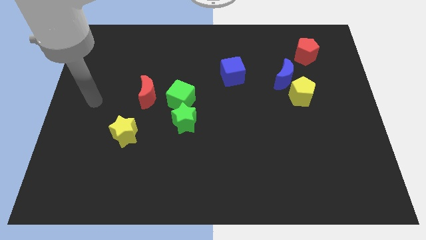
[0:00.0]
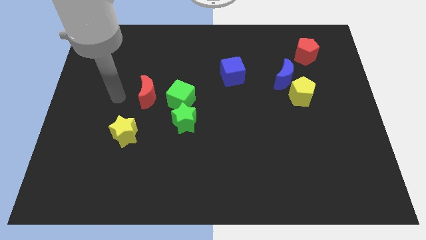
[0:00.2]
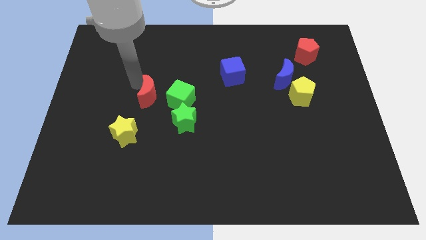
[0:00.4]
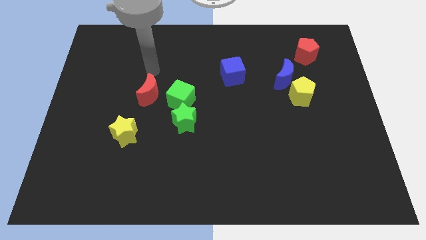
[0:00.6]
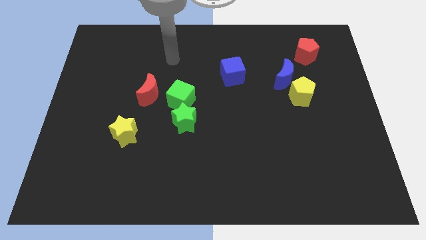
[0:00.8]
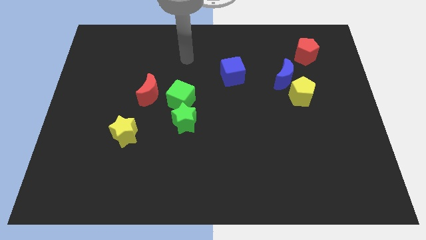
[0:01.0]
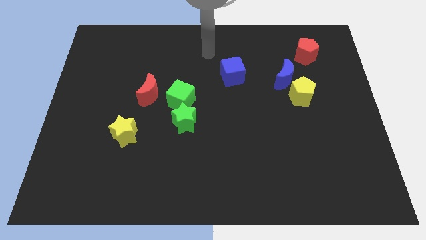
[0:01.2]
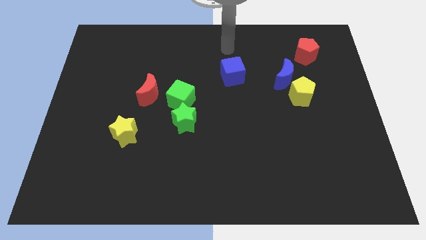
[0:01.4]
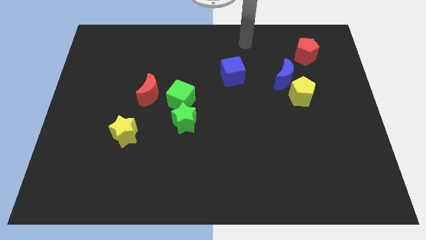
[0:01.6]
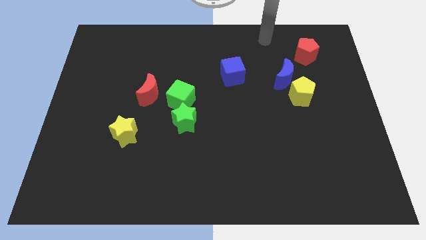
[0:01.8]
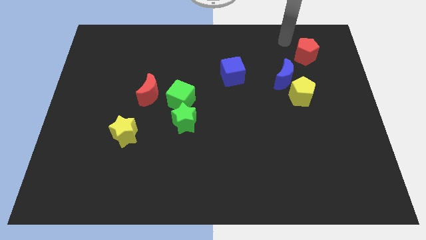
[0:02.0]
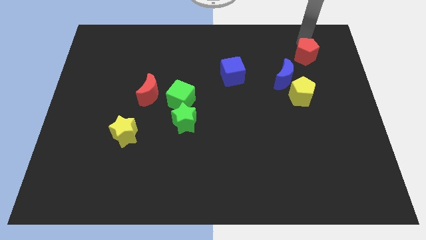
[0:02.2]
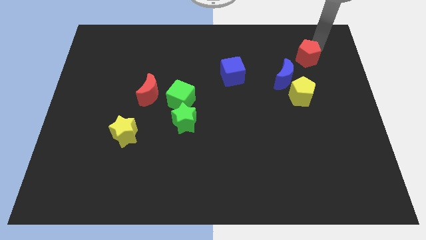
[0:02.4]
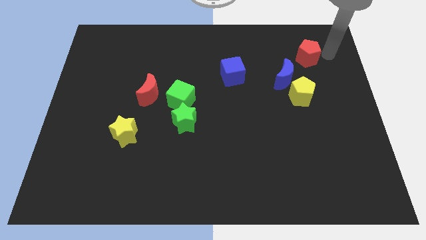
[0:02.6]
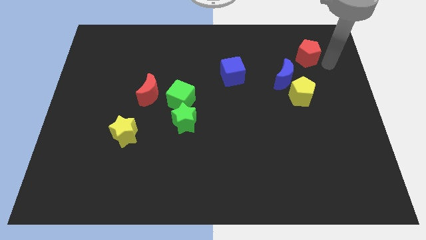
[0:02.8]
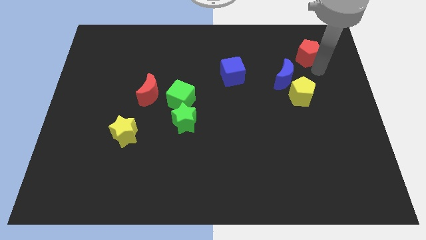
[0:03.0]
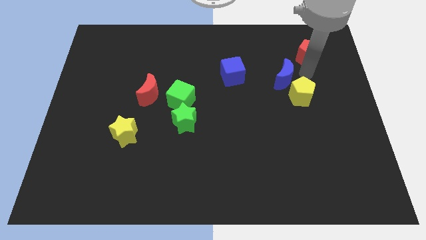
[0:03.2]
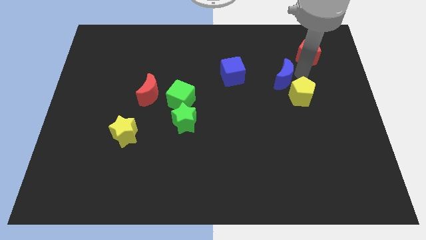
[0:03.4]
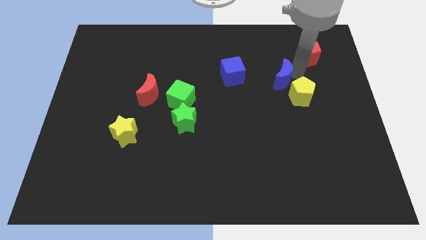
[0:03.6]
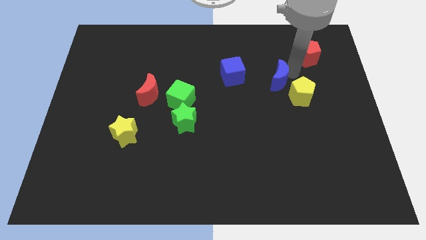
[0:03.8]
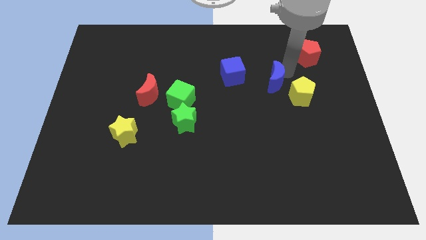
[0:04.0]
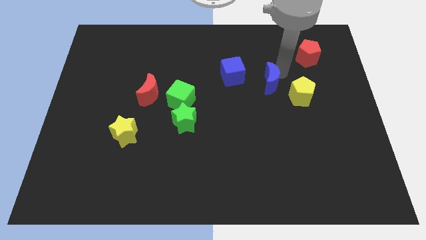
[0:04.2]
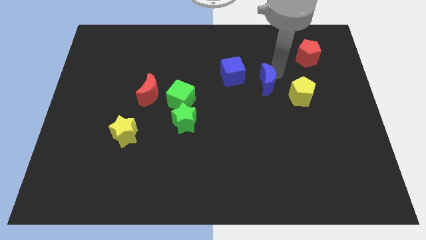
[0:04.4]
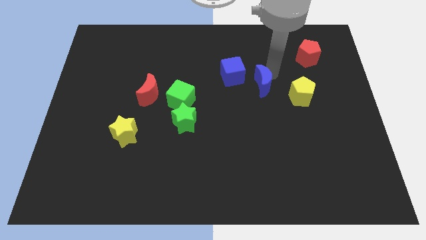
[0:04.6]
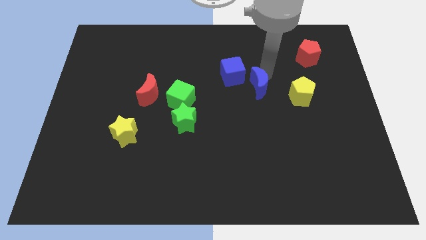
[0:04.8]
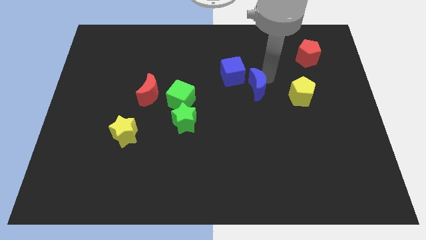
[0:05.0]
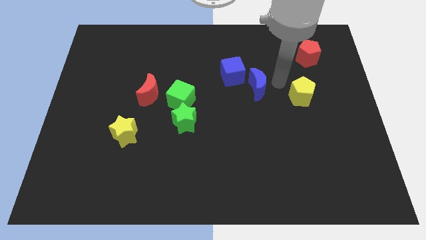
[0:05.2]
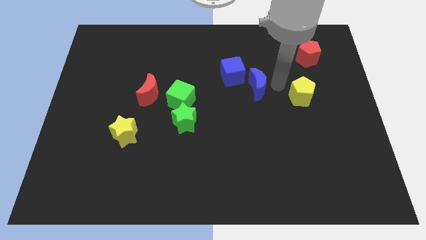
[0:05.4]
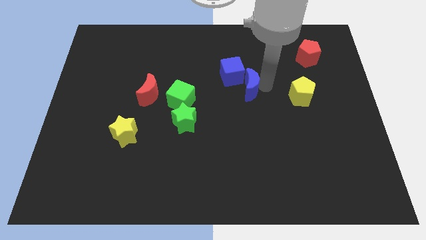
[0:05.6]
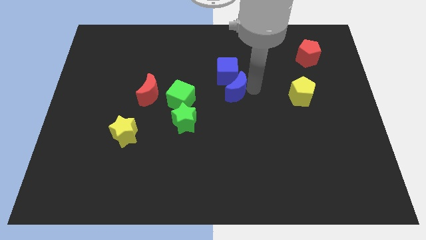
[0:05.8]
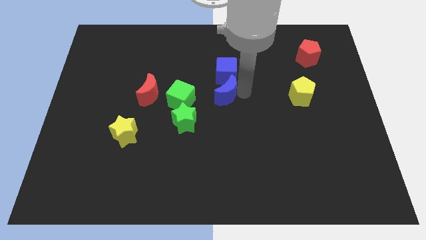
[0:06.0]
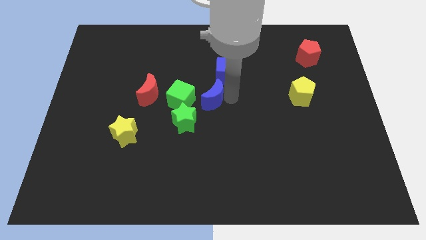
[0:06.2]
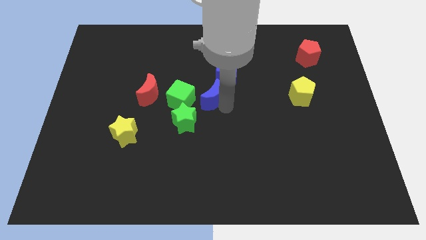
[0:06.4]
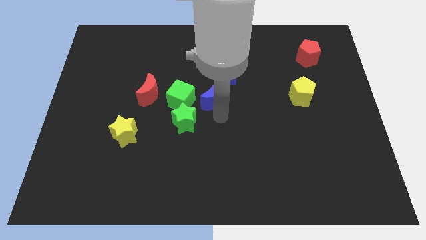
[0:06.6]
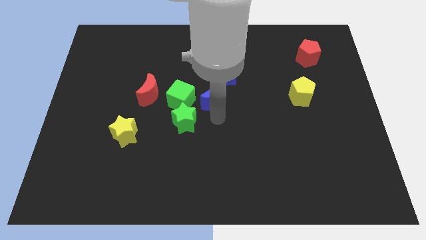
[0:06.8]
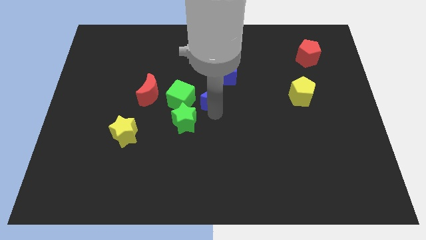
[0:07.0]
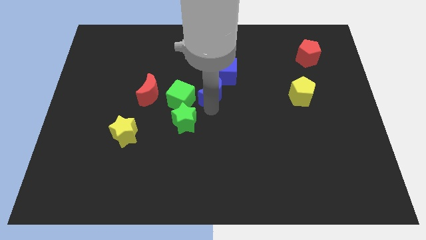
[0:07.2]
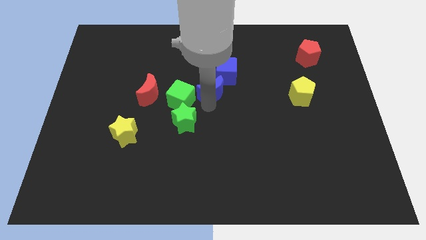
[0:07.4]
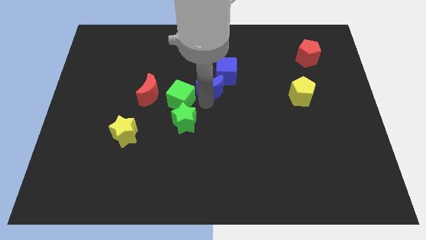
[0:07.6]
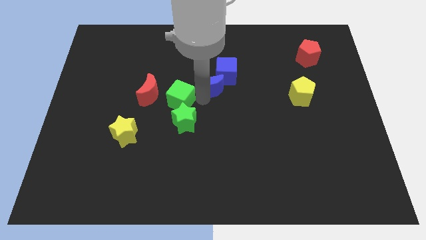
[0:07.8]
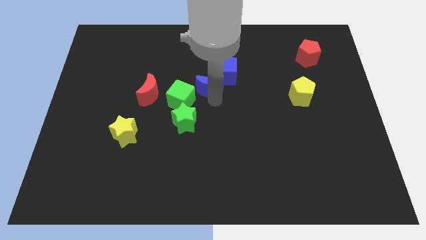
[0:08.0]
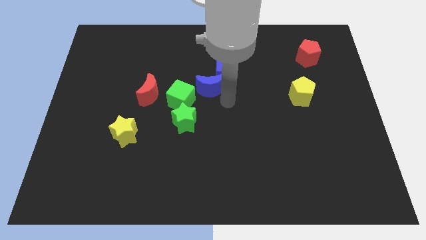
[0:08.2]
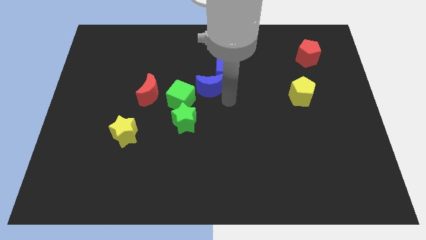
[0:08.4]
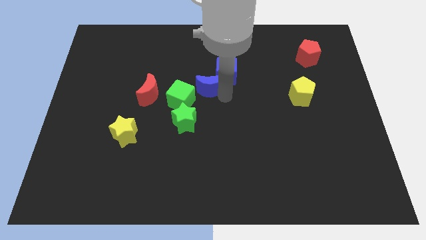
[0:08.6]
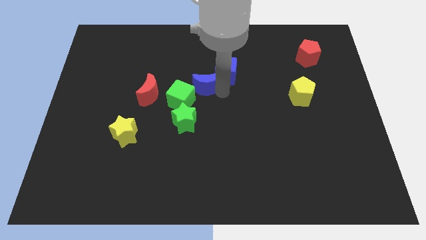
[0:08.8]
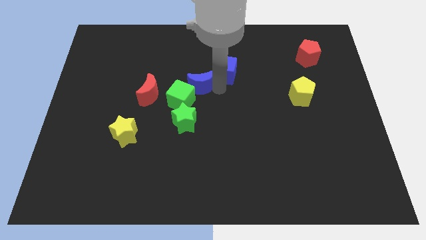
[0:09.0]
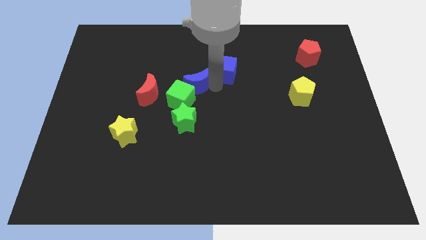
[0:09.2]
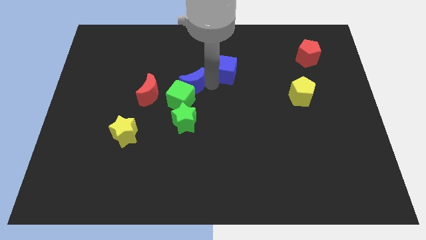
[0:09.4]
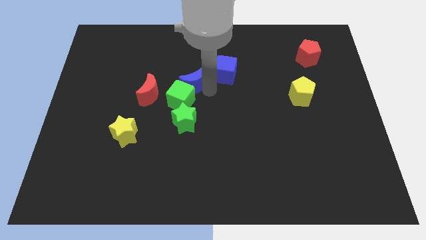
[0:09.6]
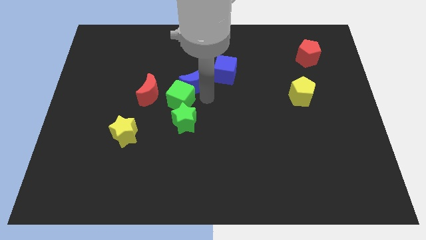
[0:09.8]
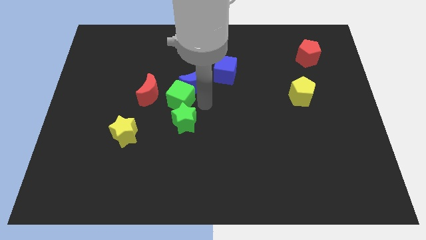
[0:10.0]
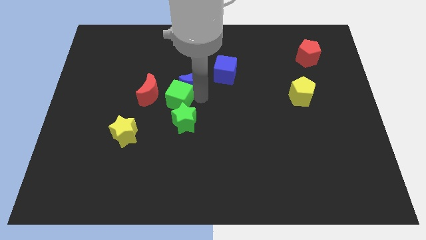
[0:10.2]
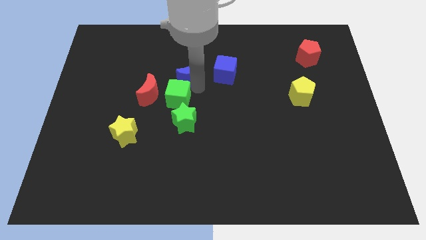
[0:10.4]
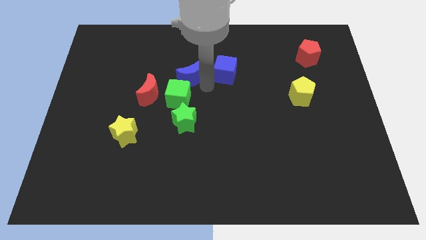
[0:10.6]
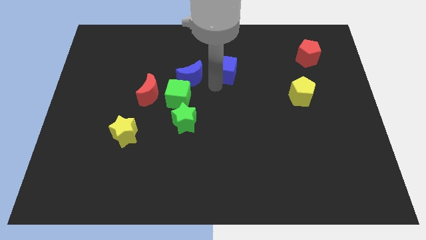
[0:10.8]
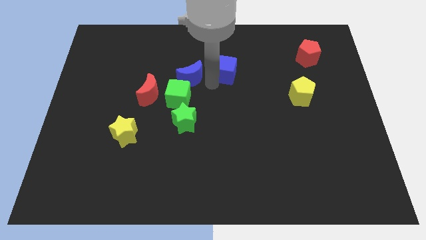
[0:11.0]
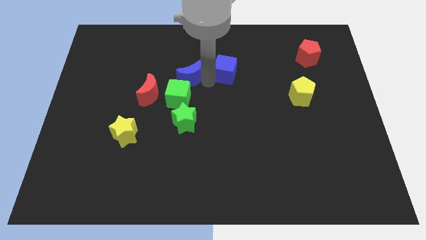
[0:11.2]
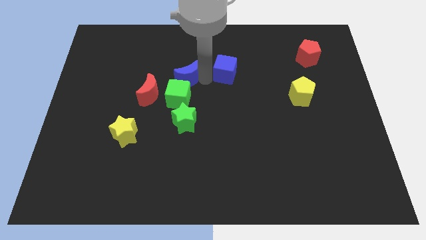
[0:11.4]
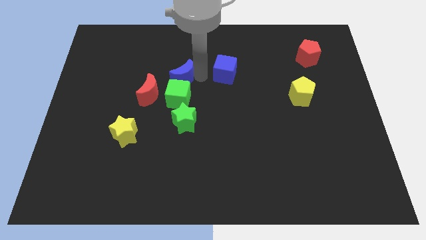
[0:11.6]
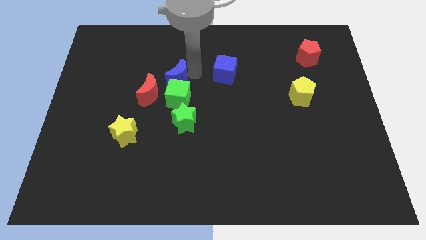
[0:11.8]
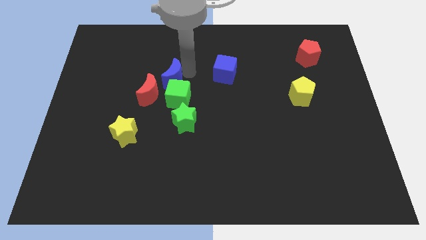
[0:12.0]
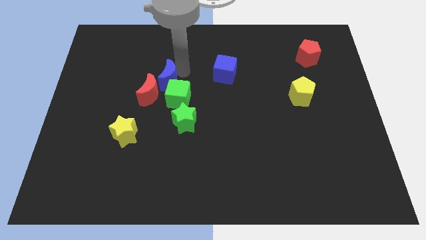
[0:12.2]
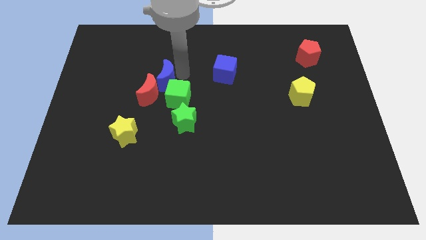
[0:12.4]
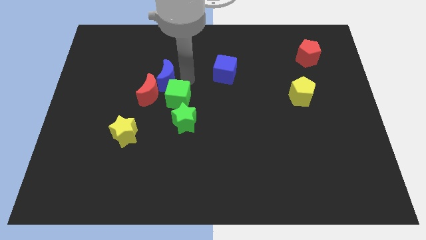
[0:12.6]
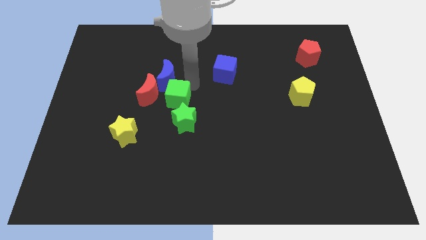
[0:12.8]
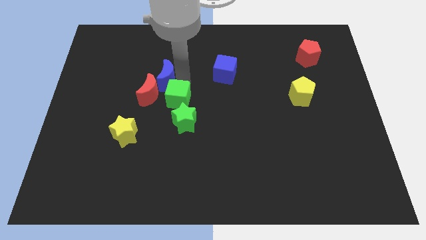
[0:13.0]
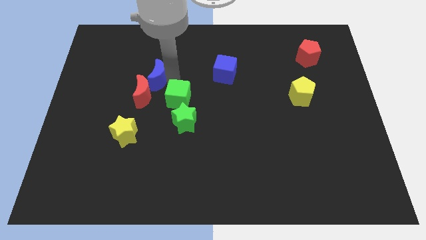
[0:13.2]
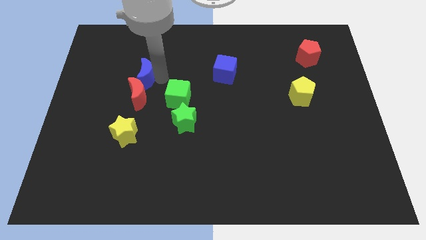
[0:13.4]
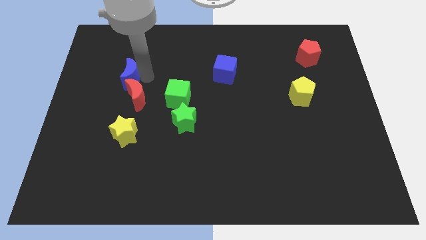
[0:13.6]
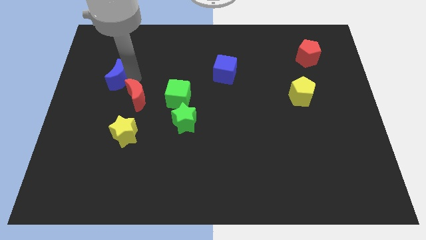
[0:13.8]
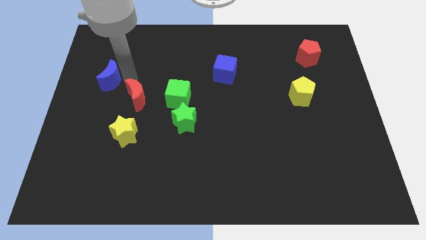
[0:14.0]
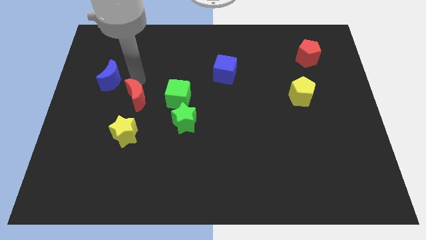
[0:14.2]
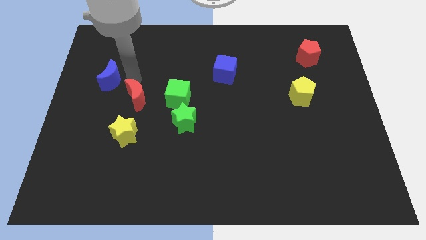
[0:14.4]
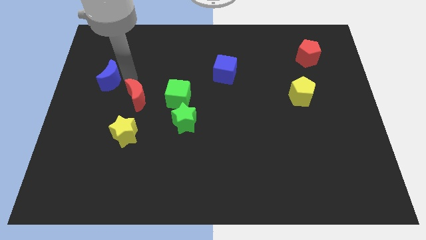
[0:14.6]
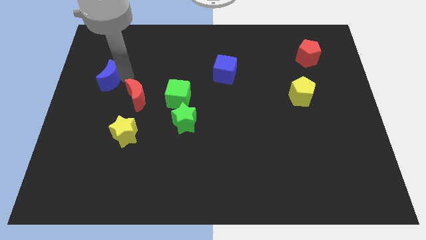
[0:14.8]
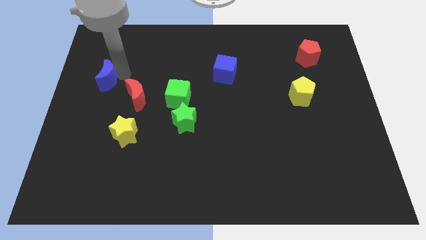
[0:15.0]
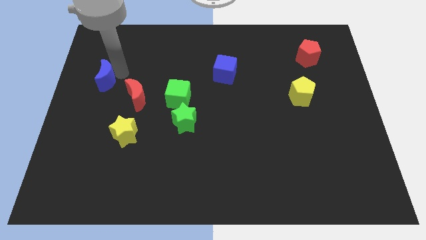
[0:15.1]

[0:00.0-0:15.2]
put the blue moon to the center left
